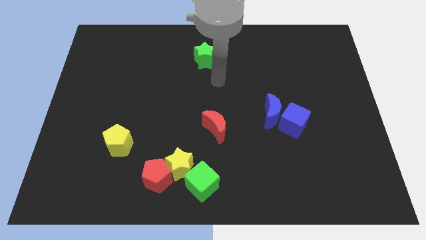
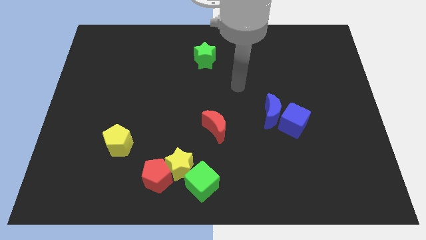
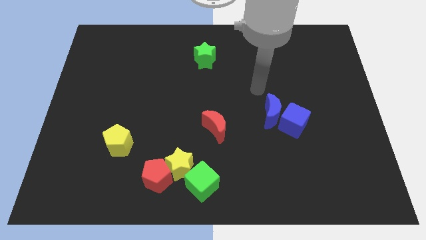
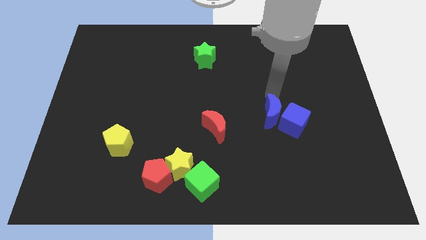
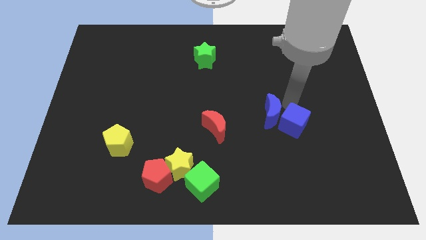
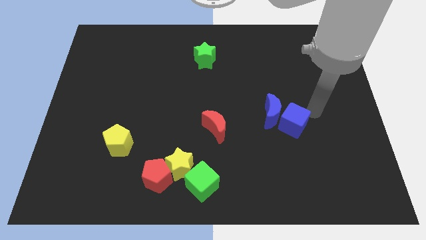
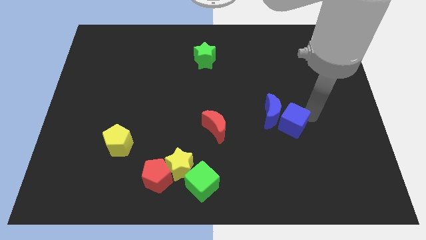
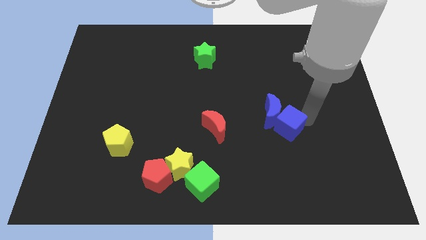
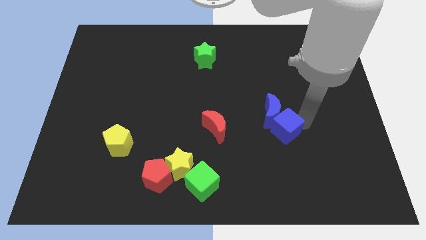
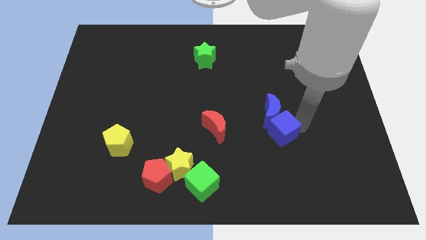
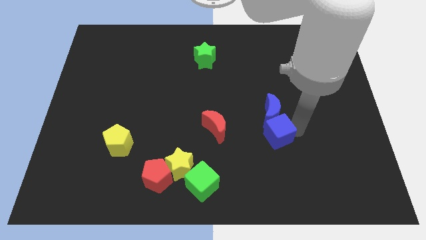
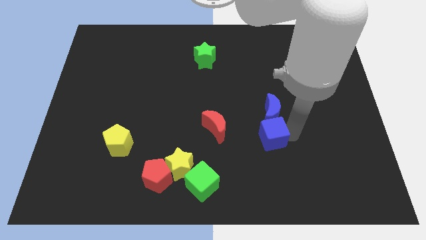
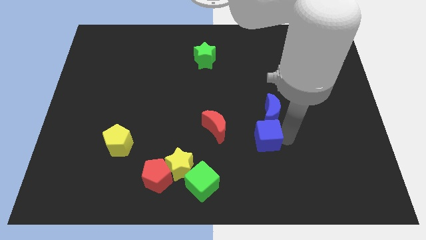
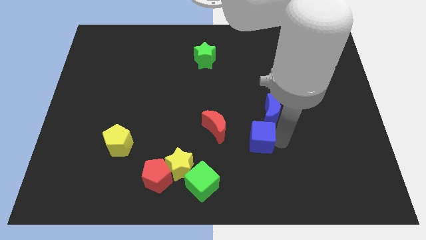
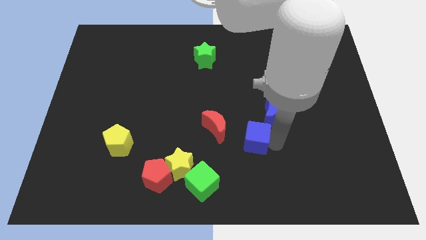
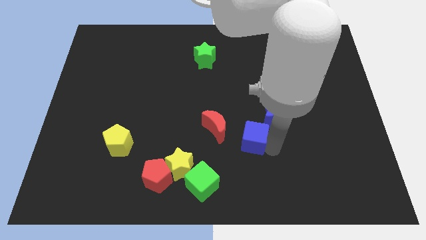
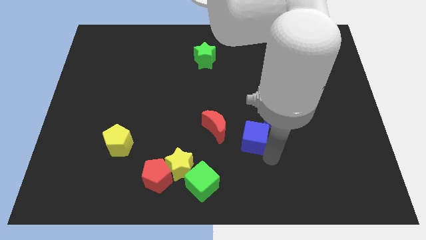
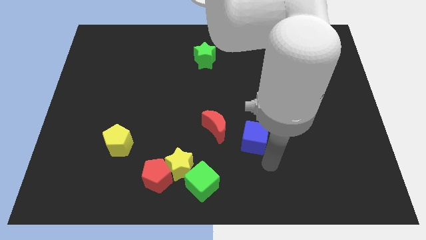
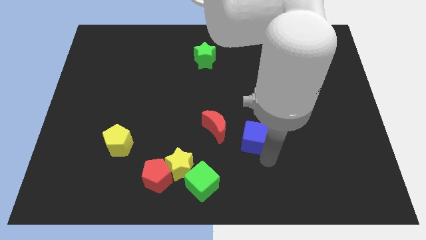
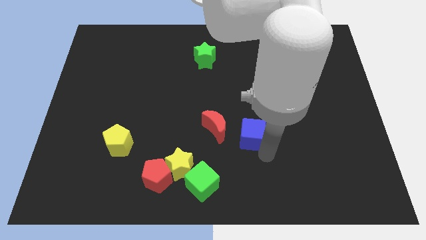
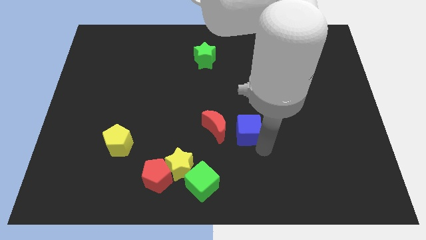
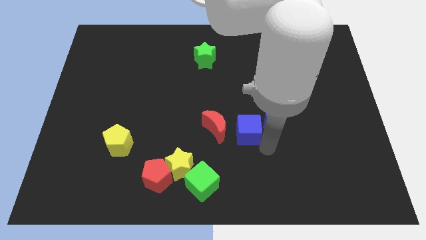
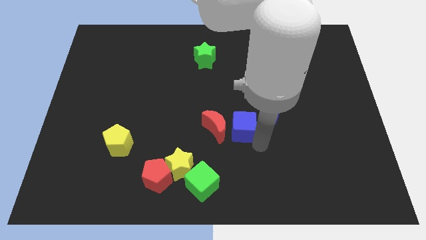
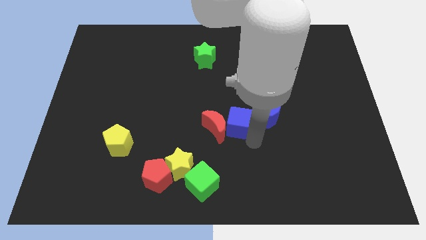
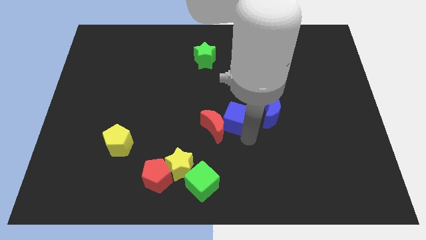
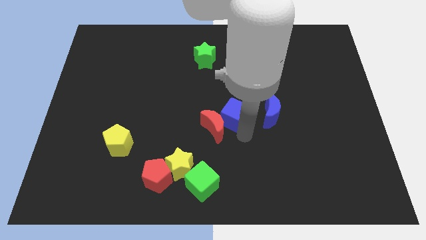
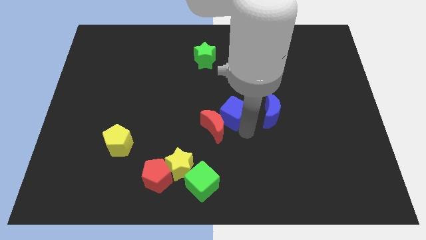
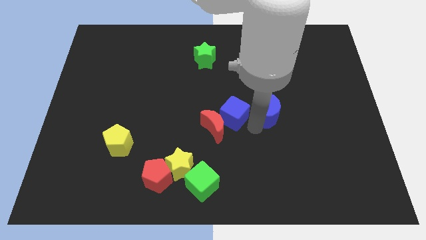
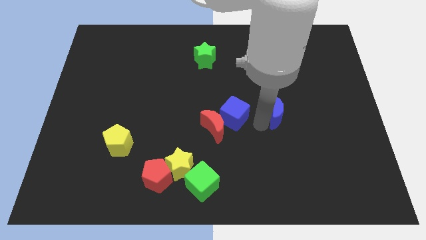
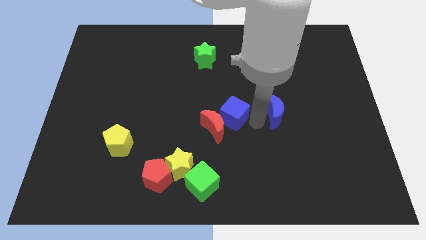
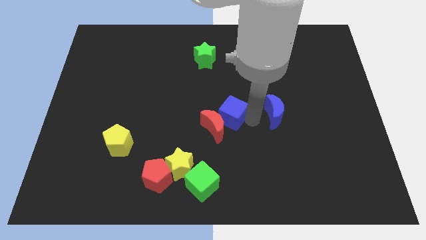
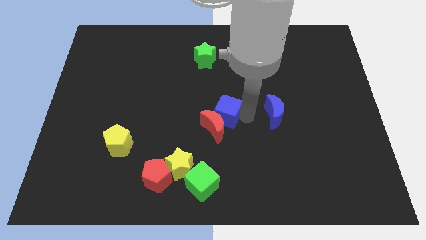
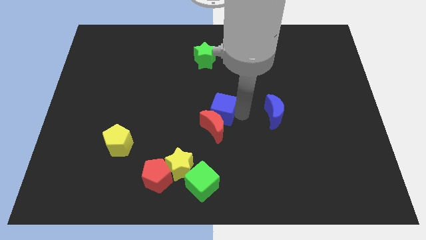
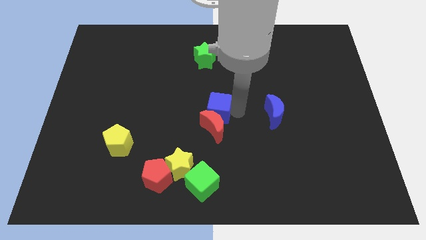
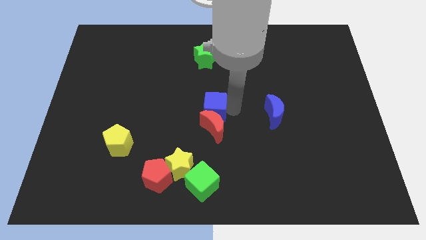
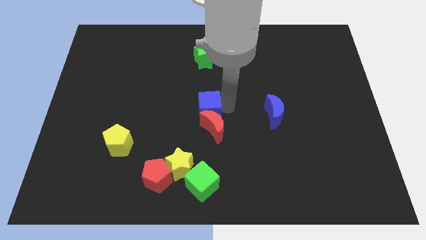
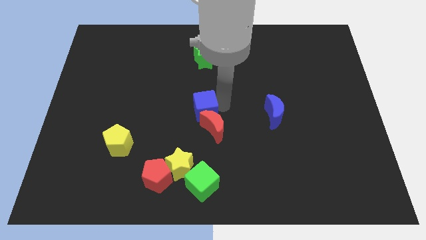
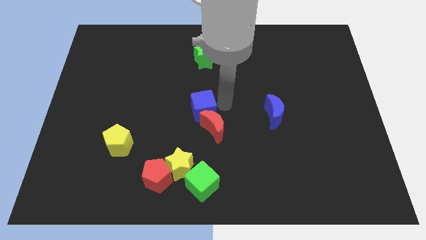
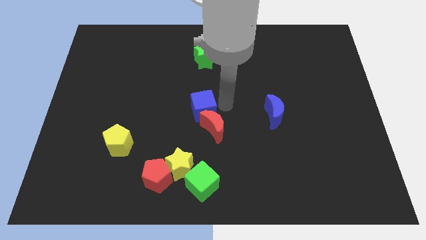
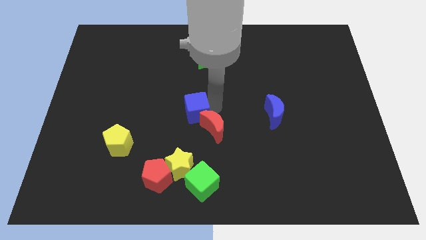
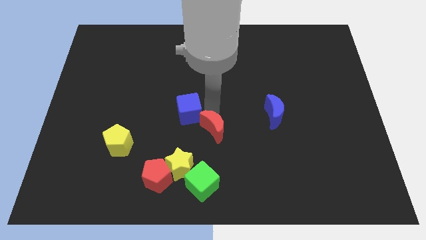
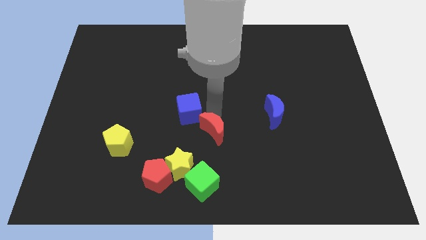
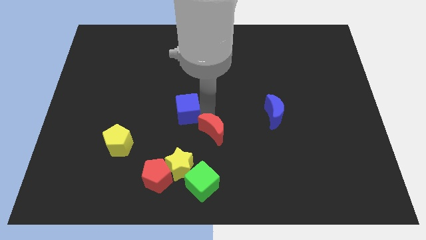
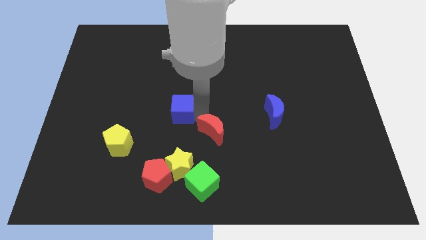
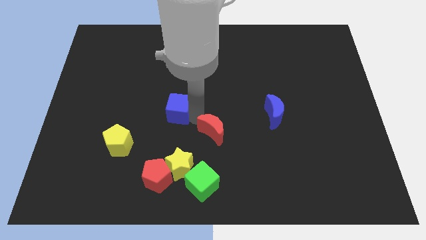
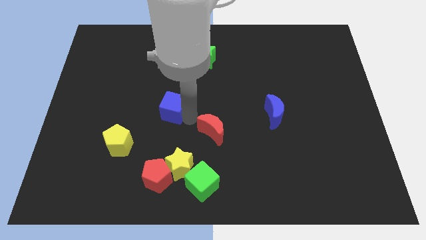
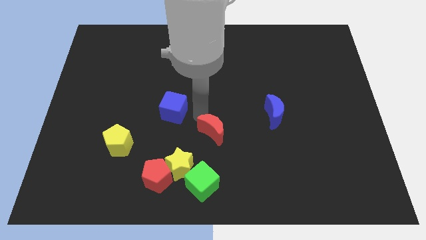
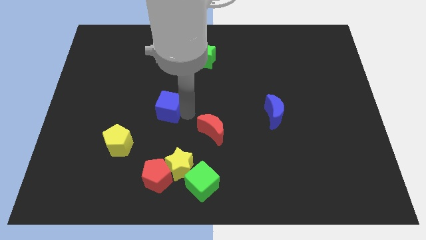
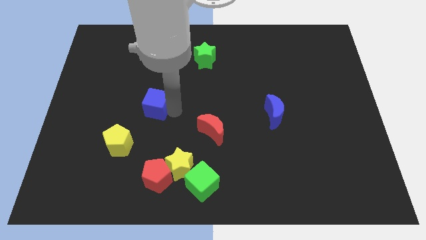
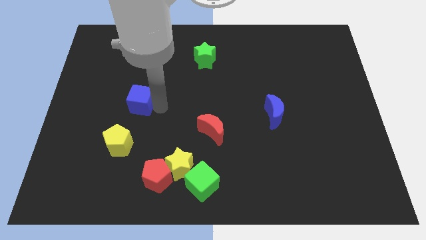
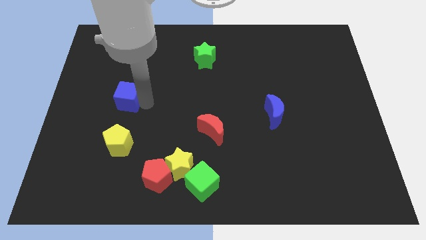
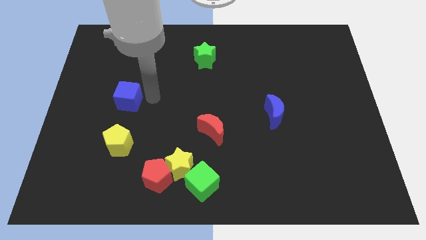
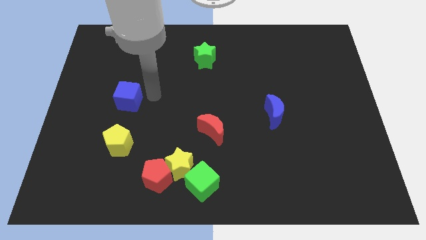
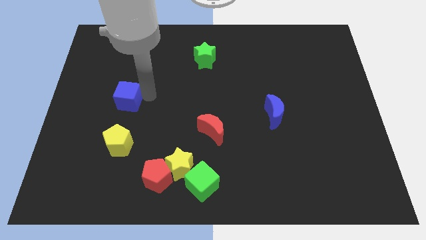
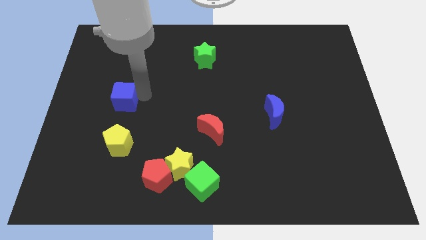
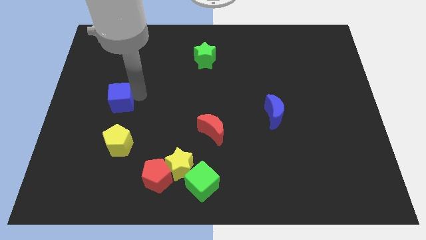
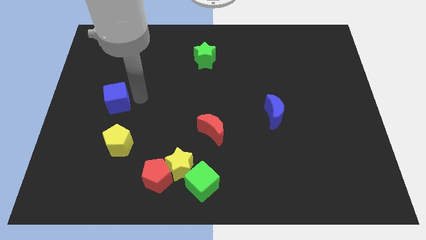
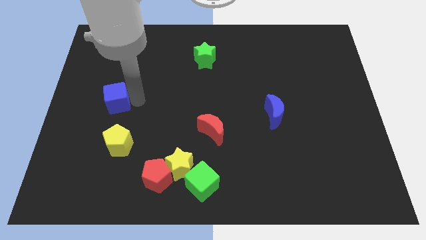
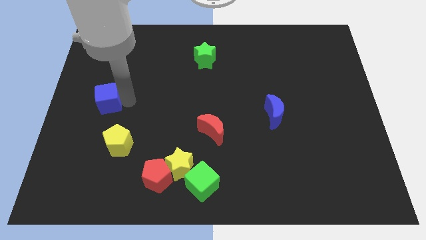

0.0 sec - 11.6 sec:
slide the blue cube to the center left

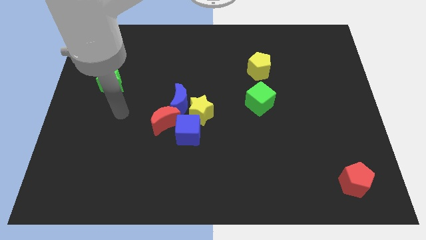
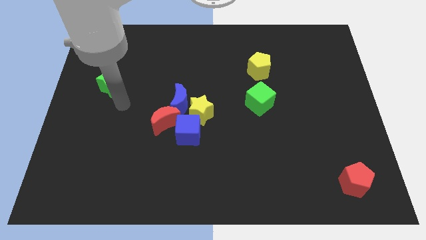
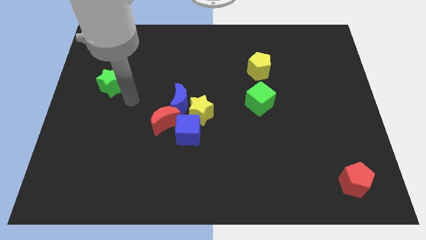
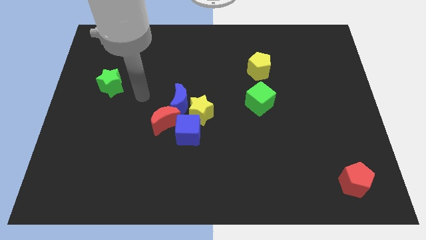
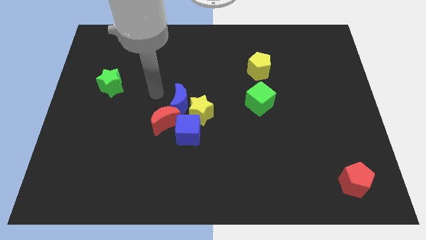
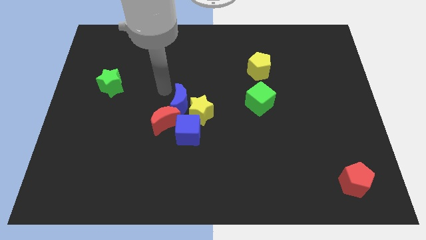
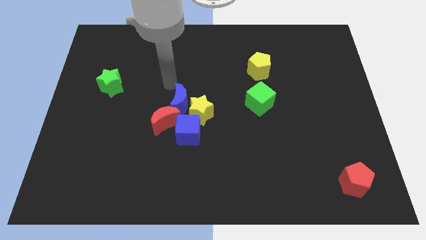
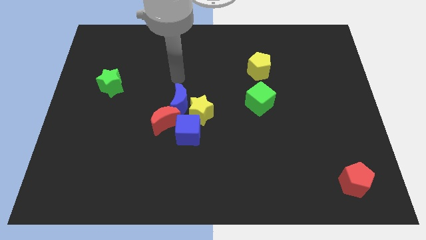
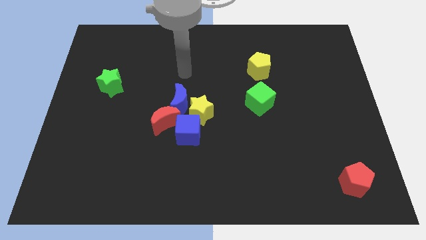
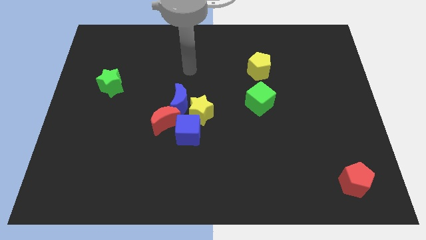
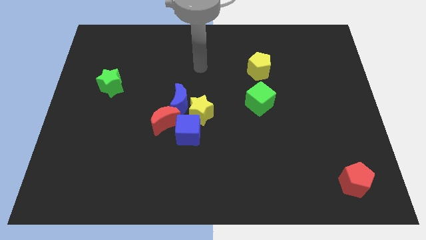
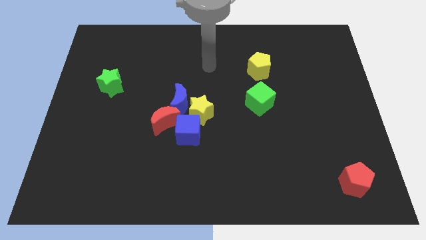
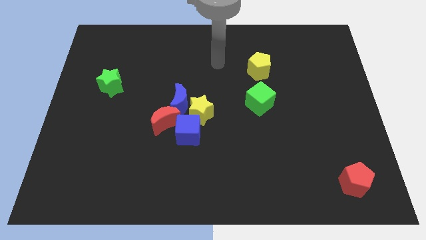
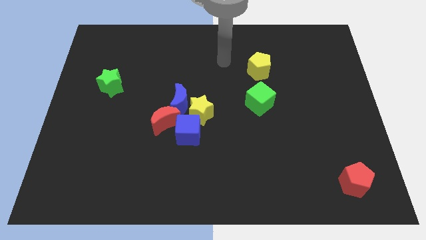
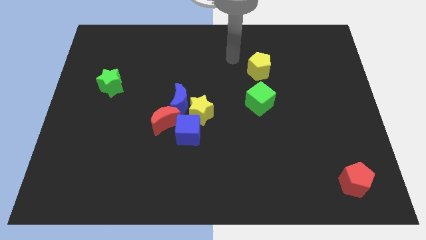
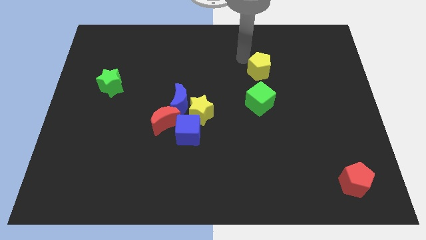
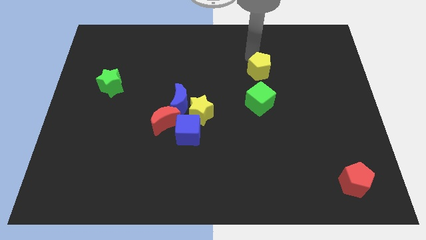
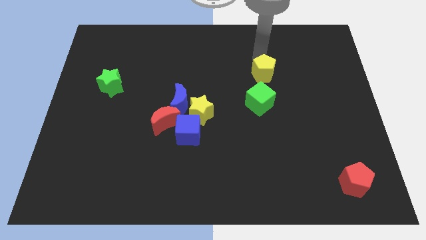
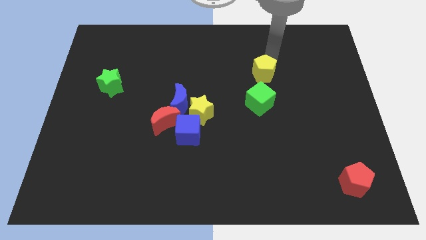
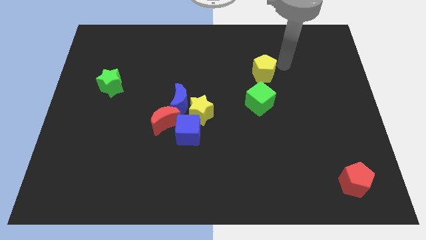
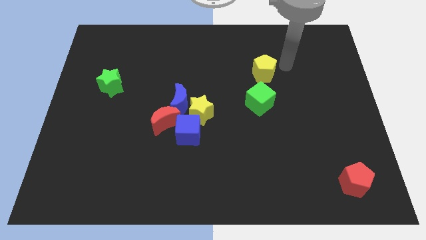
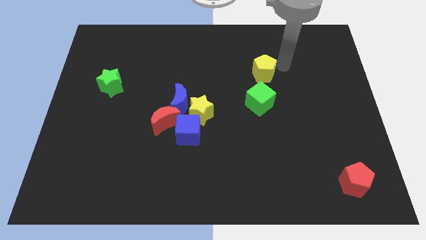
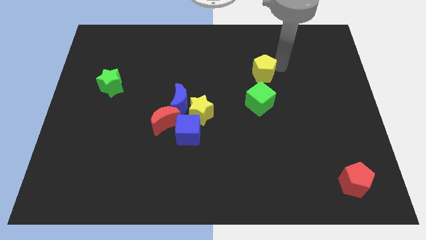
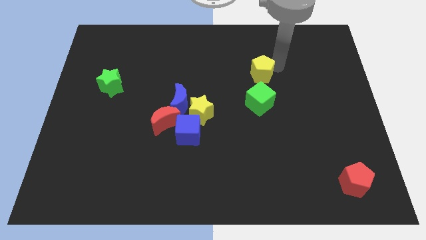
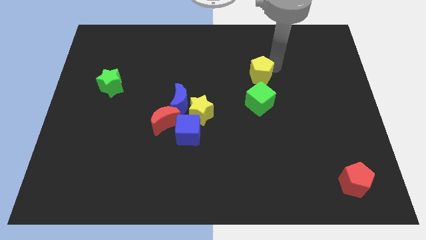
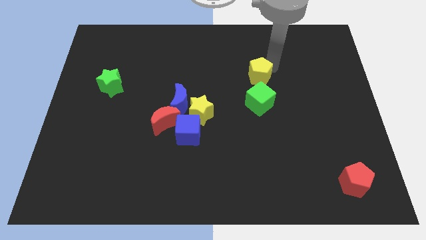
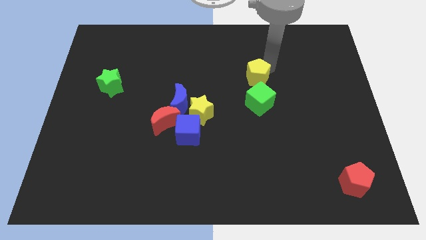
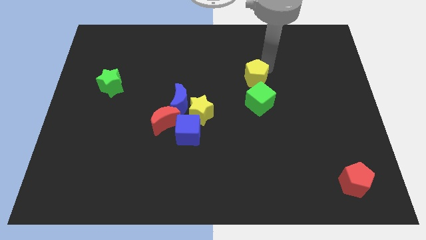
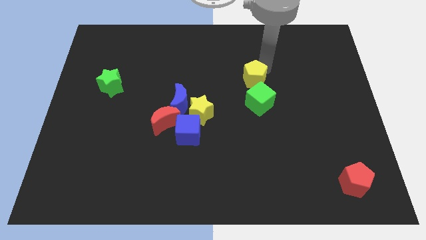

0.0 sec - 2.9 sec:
slide the yellow pentagon to the middle of the board
